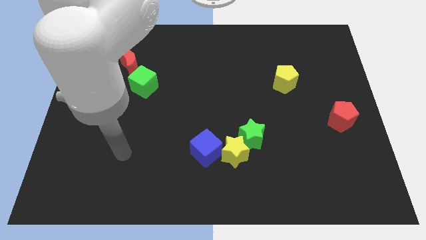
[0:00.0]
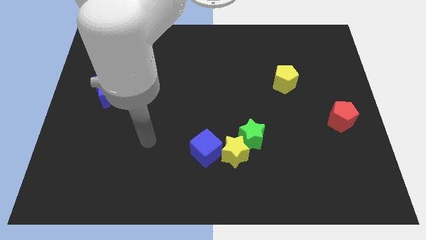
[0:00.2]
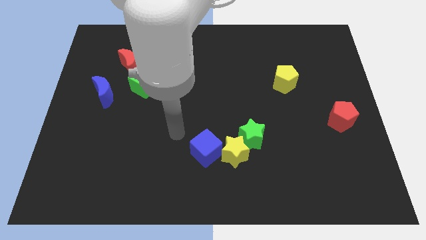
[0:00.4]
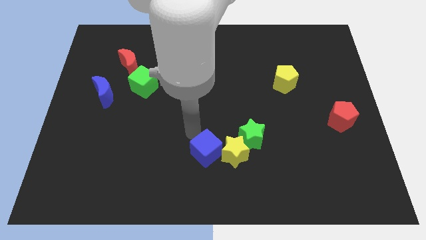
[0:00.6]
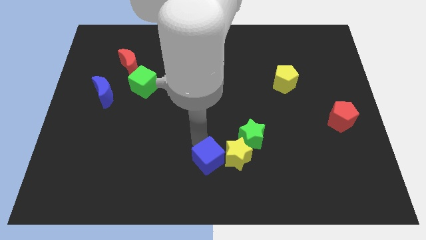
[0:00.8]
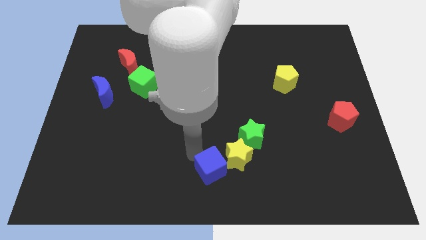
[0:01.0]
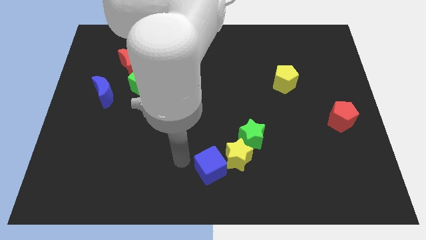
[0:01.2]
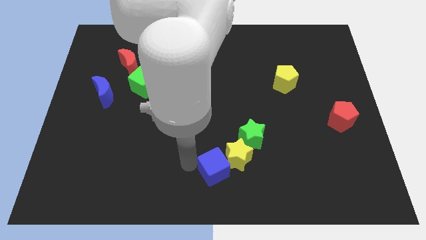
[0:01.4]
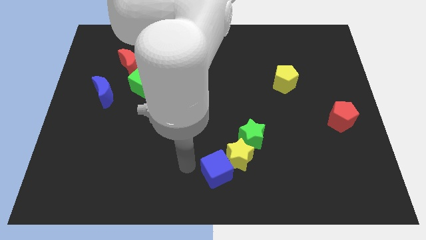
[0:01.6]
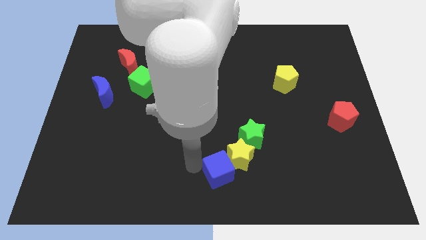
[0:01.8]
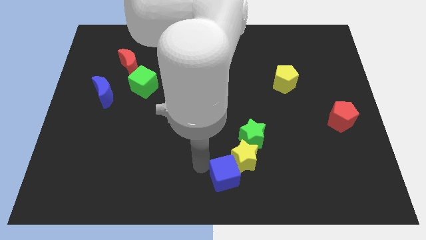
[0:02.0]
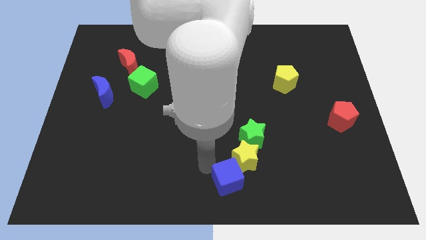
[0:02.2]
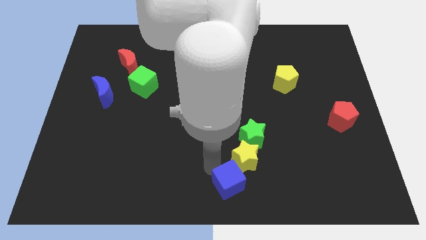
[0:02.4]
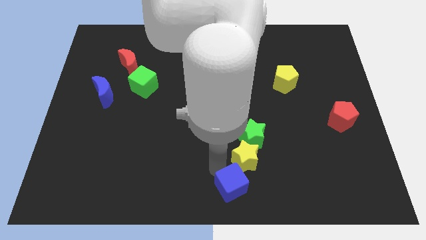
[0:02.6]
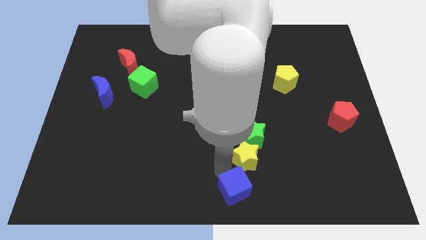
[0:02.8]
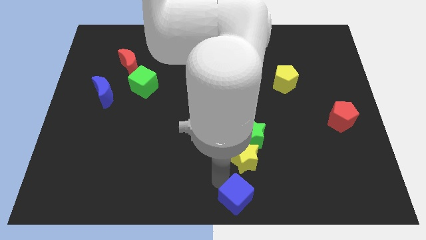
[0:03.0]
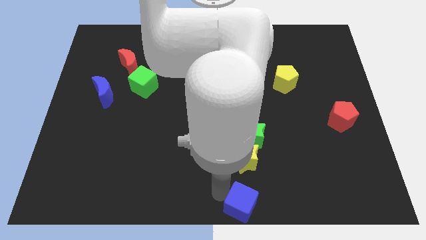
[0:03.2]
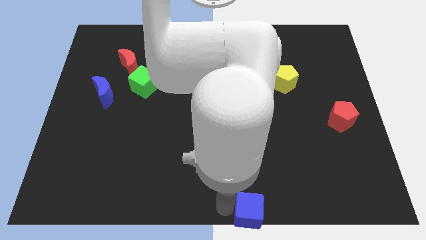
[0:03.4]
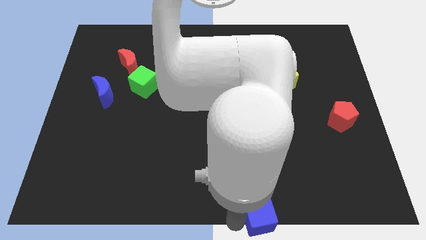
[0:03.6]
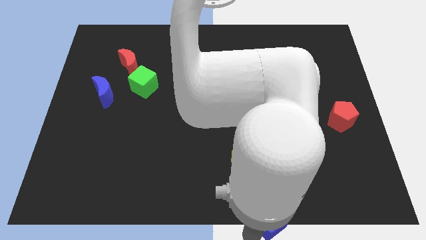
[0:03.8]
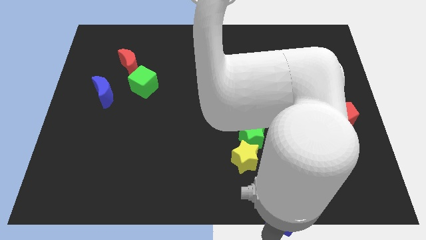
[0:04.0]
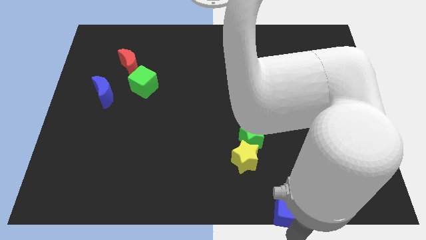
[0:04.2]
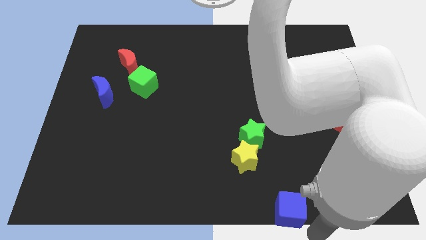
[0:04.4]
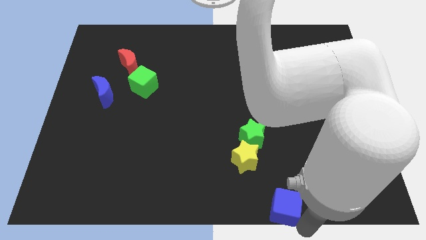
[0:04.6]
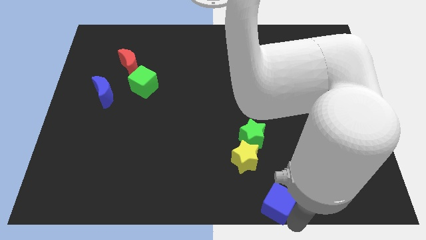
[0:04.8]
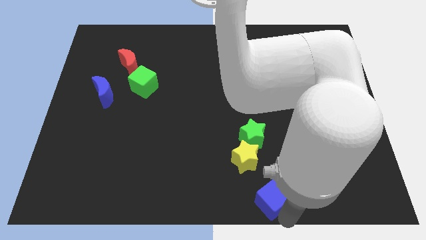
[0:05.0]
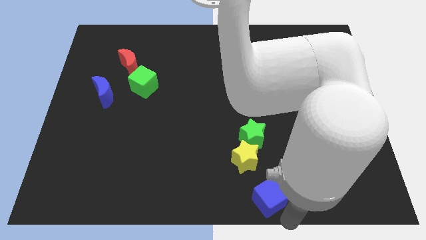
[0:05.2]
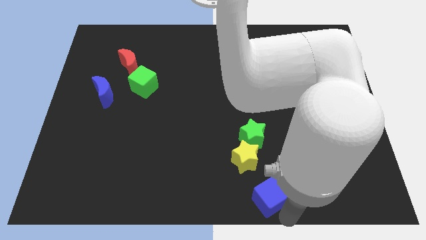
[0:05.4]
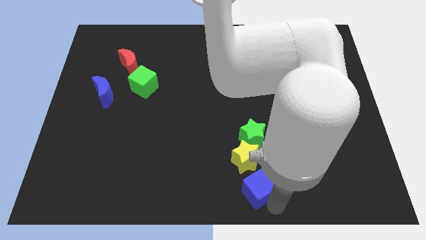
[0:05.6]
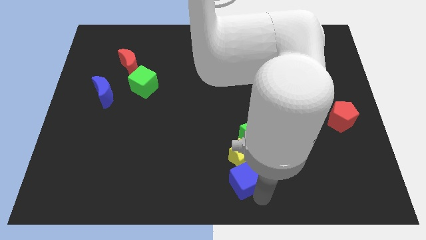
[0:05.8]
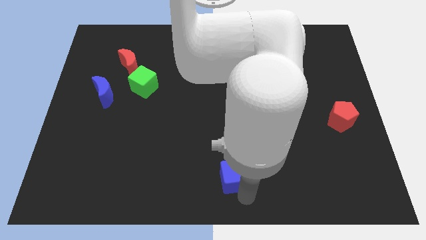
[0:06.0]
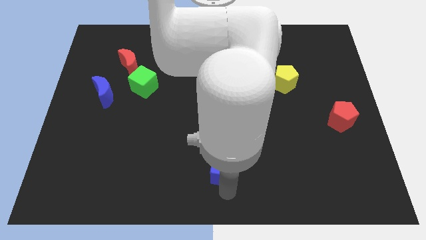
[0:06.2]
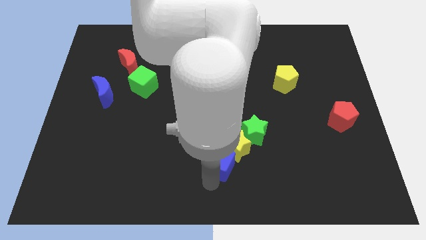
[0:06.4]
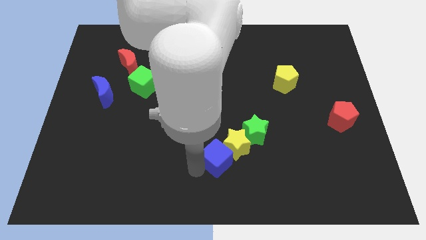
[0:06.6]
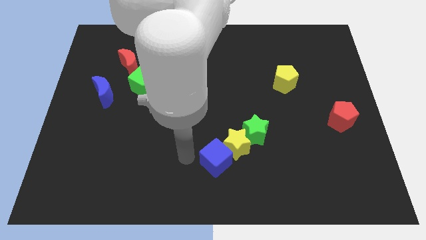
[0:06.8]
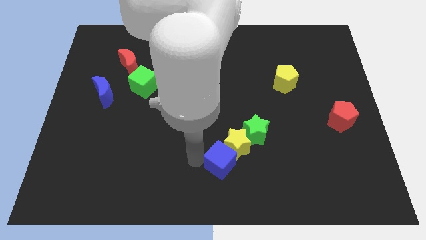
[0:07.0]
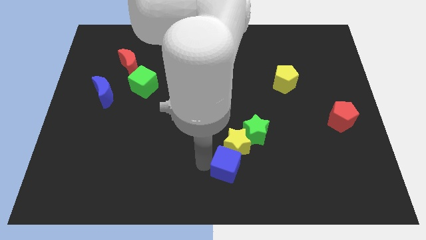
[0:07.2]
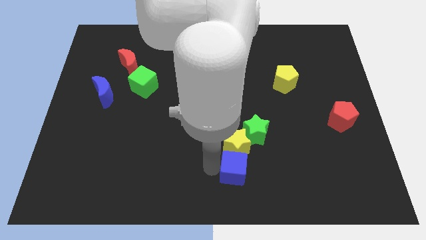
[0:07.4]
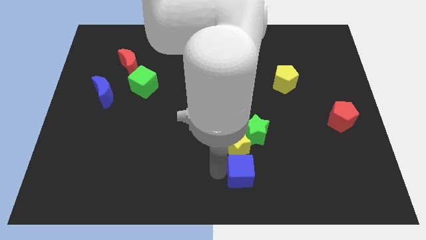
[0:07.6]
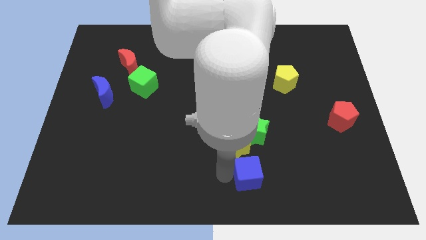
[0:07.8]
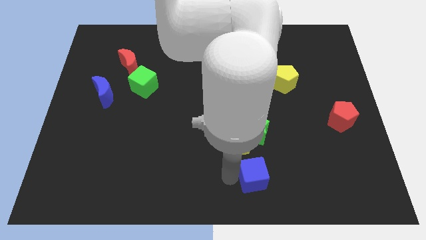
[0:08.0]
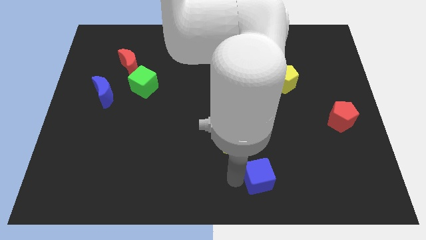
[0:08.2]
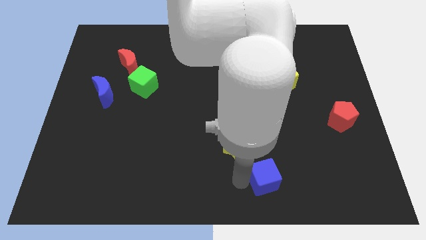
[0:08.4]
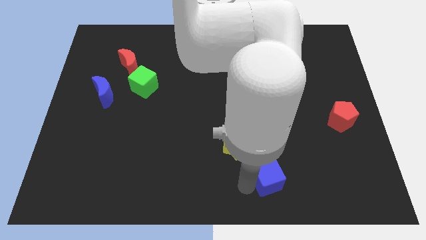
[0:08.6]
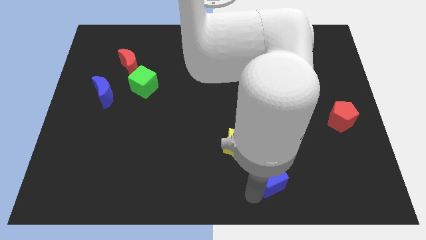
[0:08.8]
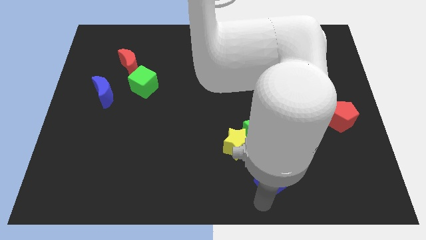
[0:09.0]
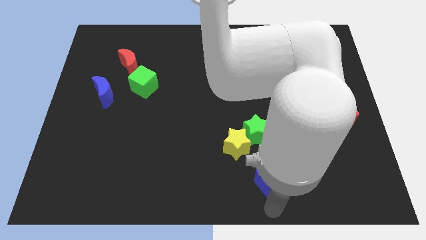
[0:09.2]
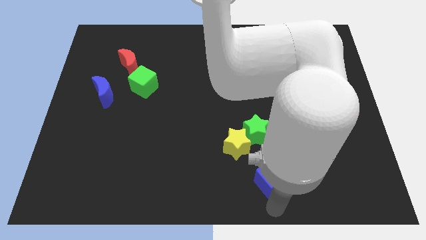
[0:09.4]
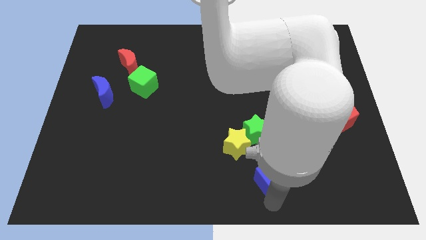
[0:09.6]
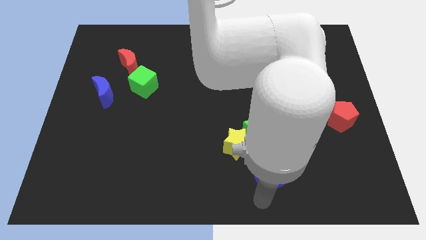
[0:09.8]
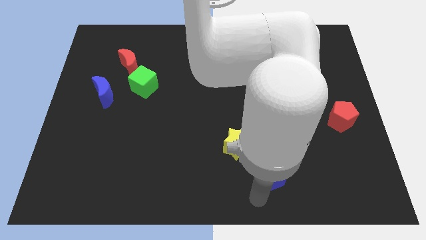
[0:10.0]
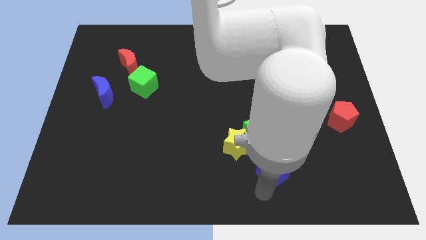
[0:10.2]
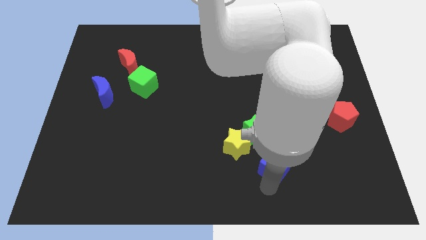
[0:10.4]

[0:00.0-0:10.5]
slide the blue cube right of the yellow star

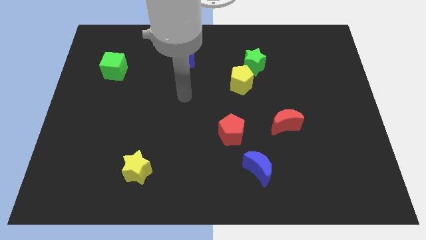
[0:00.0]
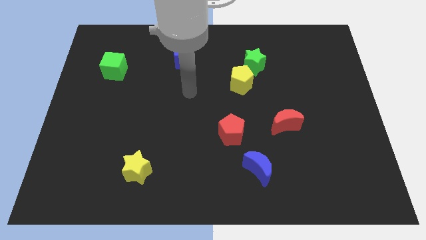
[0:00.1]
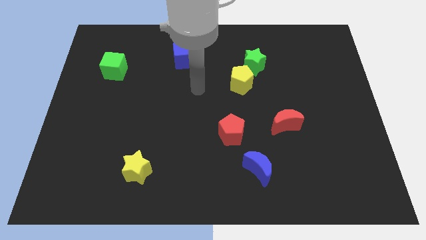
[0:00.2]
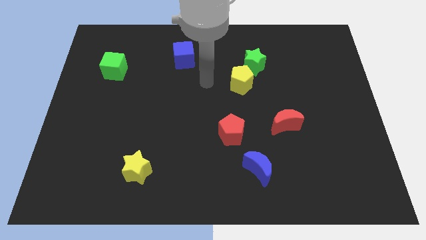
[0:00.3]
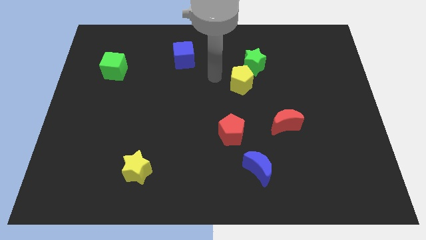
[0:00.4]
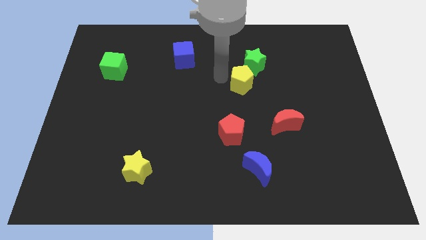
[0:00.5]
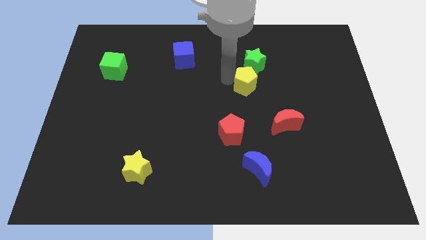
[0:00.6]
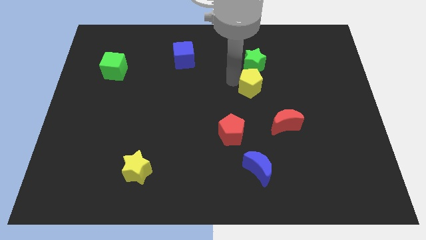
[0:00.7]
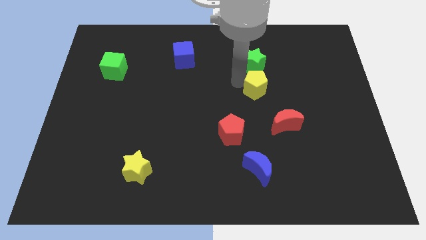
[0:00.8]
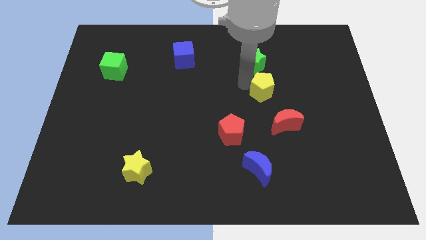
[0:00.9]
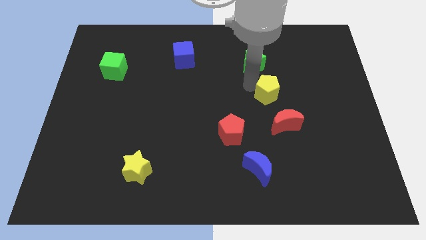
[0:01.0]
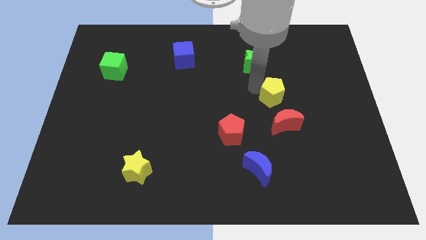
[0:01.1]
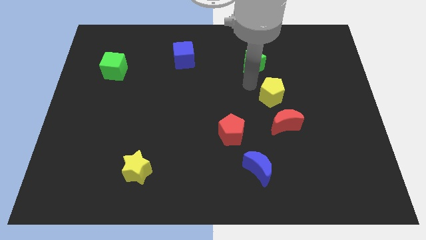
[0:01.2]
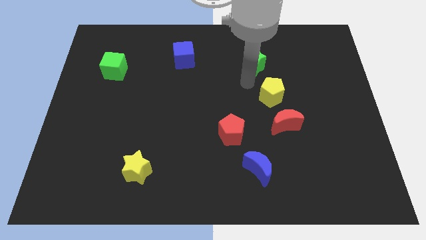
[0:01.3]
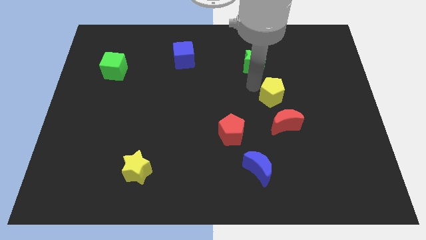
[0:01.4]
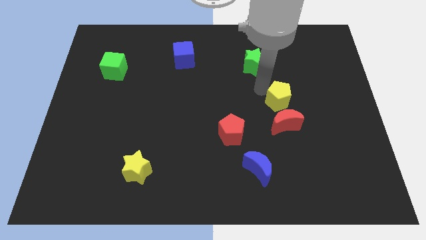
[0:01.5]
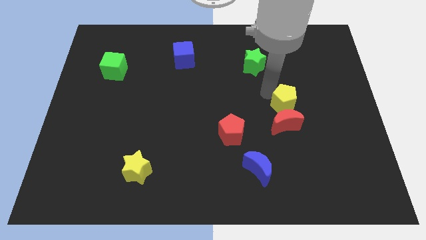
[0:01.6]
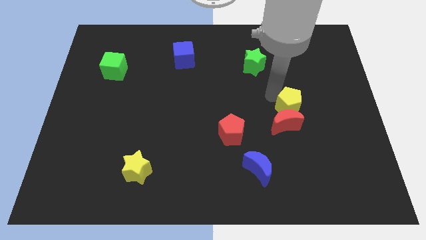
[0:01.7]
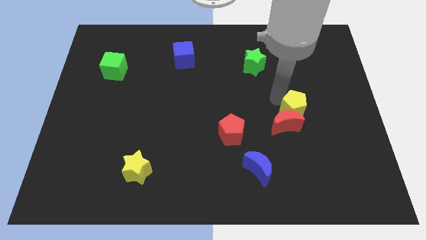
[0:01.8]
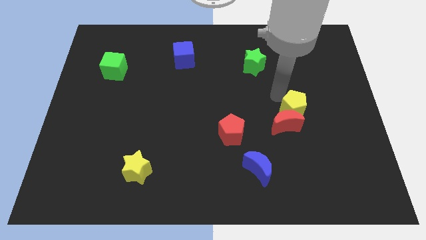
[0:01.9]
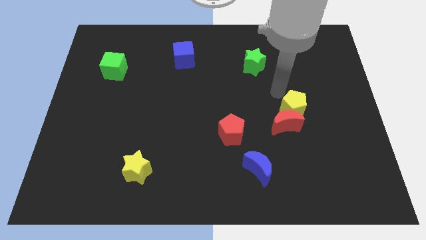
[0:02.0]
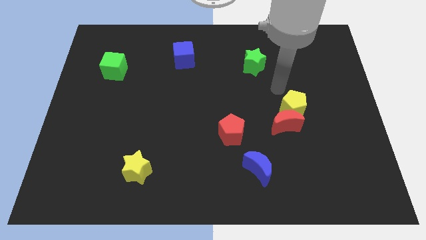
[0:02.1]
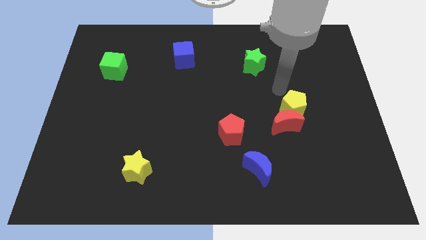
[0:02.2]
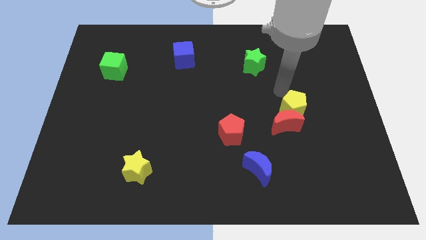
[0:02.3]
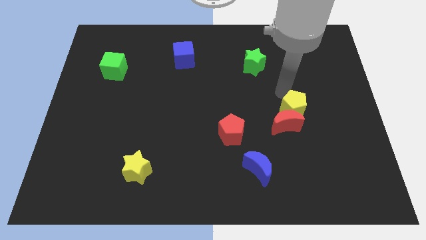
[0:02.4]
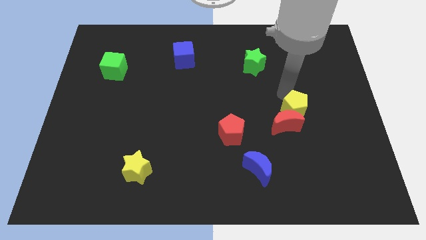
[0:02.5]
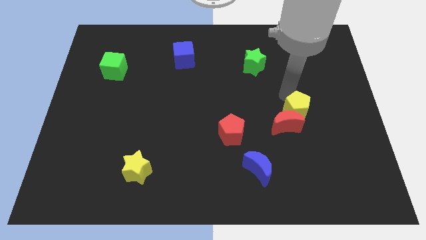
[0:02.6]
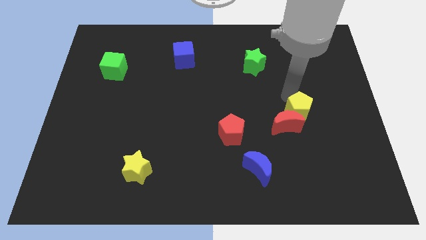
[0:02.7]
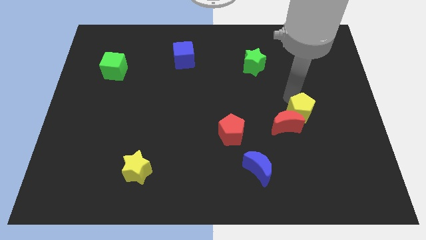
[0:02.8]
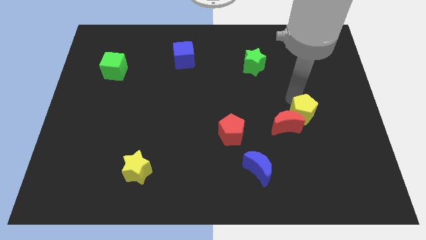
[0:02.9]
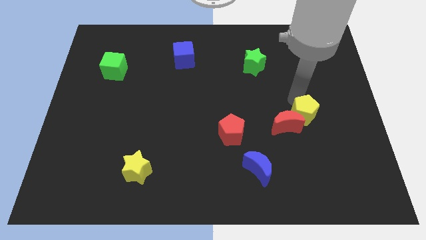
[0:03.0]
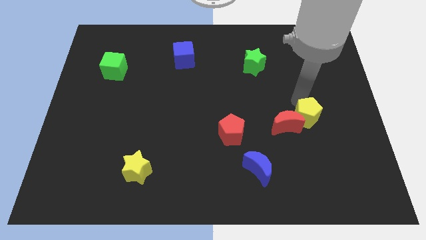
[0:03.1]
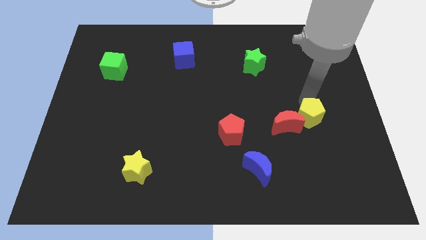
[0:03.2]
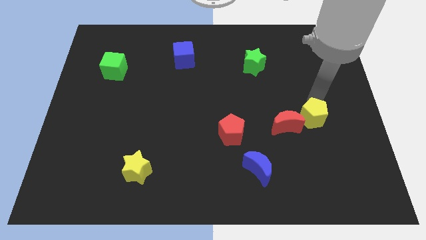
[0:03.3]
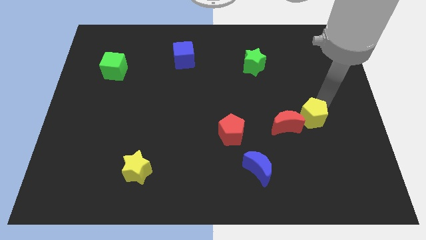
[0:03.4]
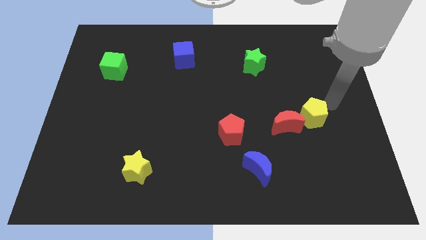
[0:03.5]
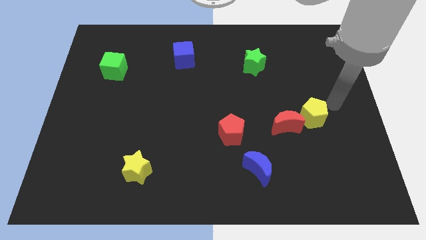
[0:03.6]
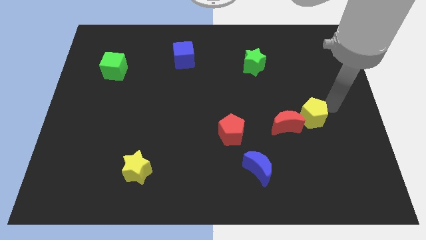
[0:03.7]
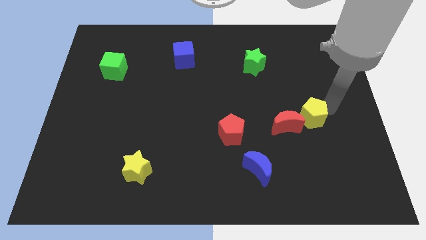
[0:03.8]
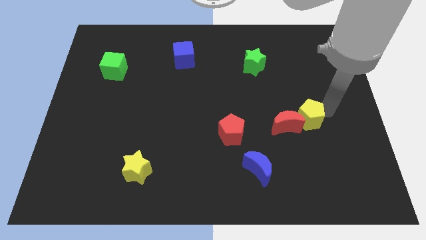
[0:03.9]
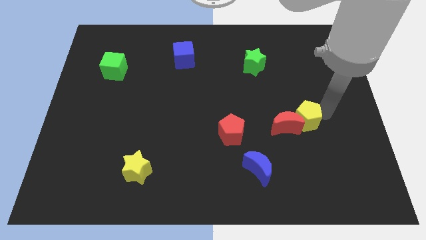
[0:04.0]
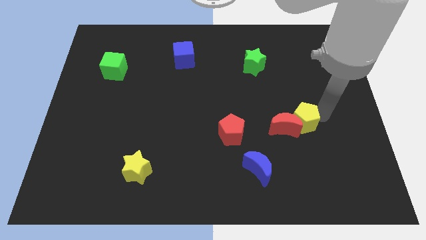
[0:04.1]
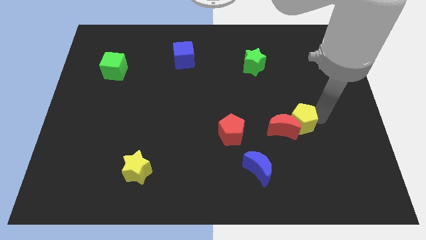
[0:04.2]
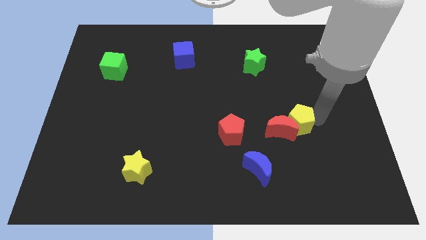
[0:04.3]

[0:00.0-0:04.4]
put the yellow pentagon to the right side of the red pentagon
